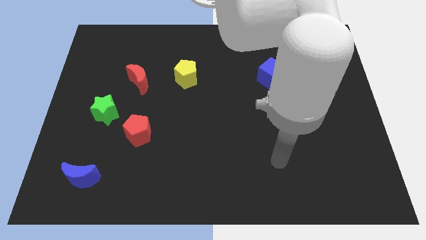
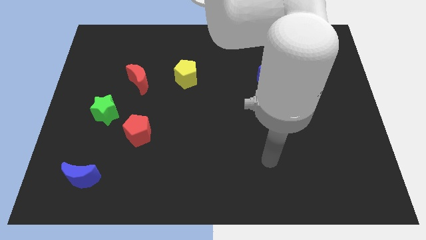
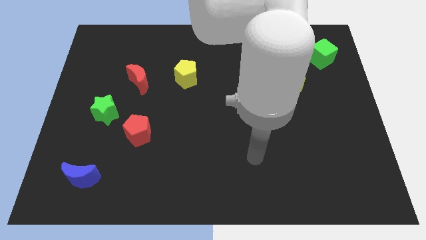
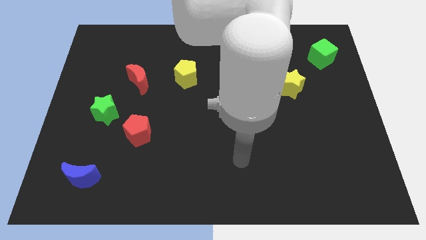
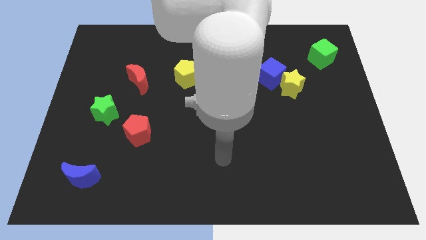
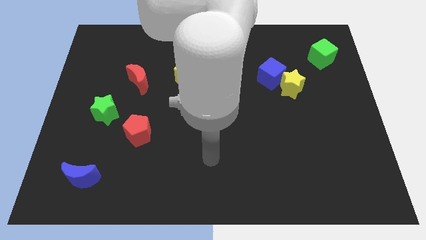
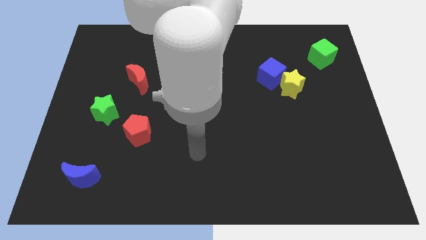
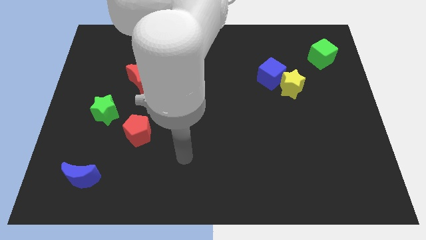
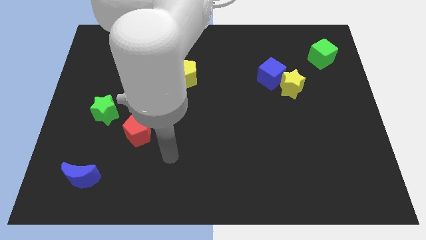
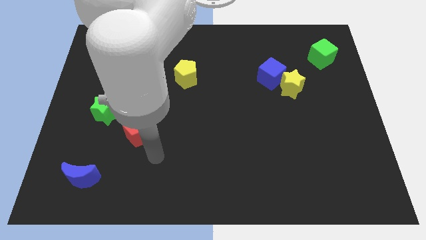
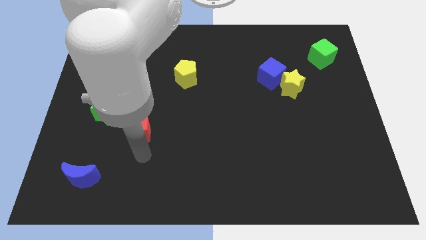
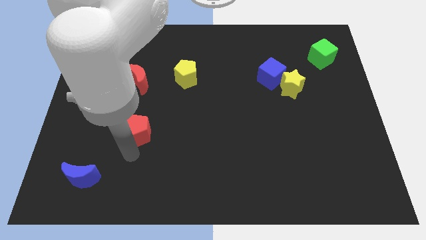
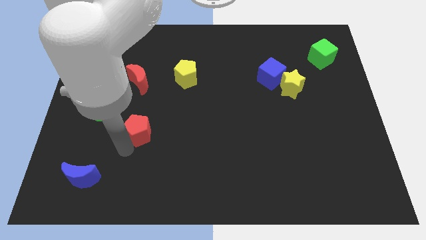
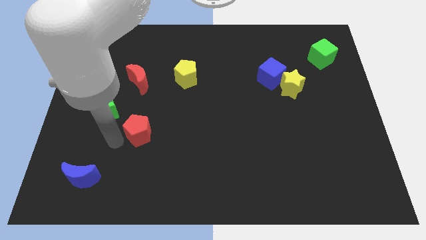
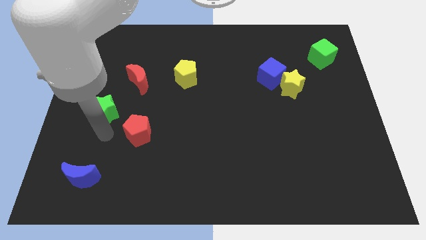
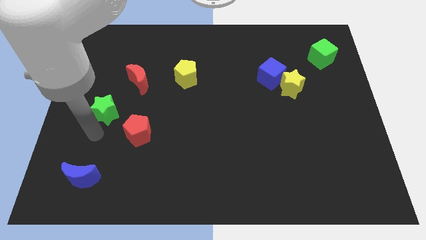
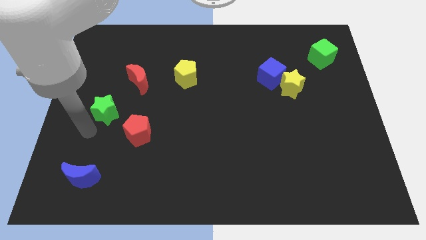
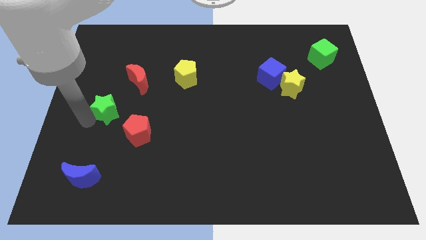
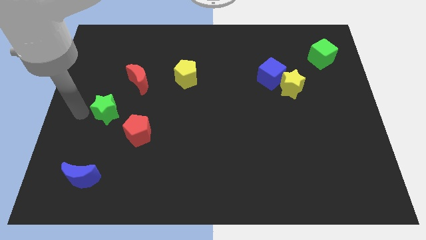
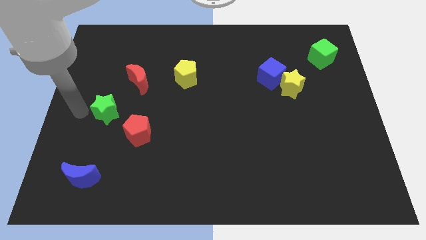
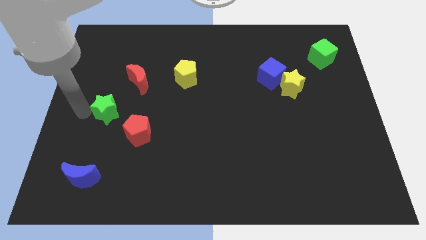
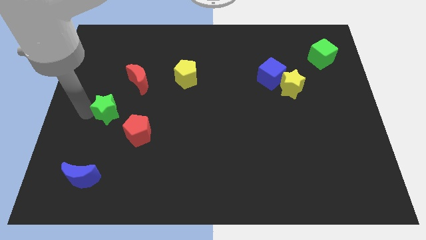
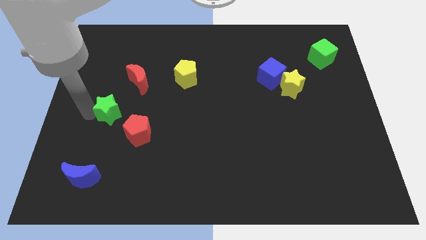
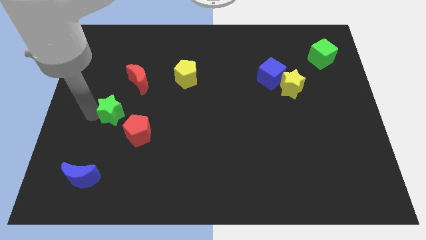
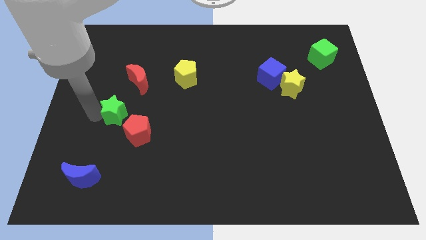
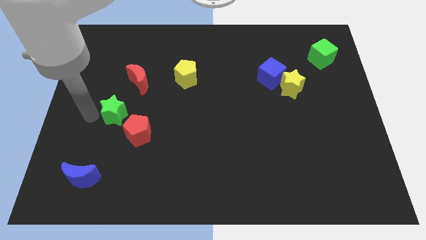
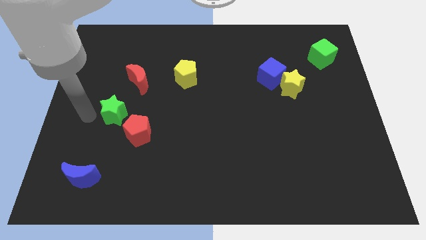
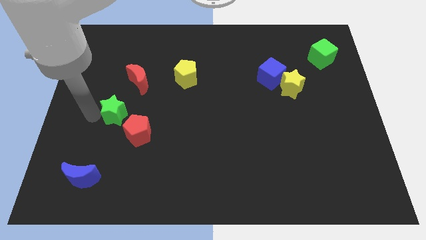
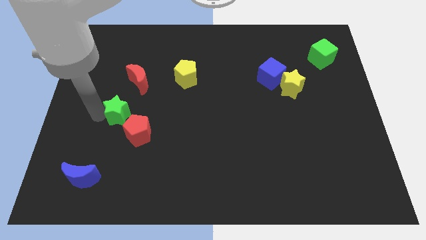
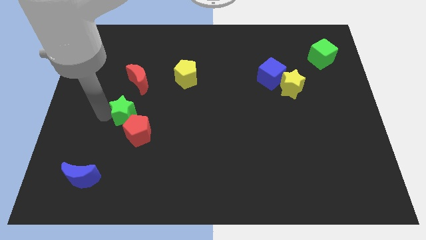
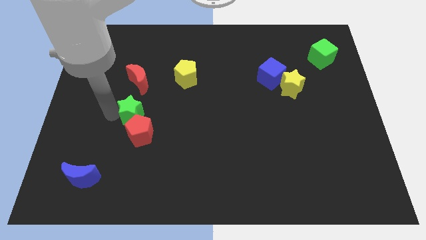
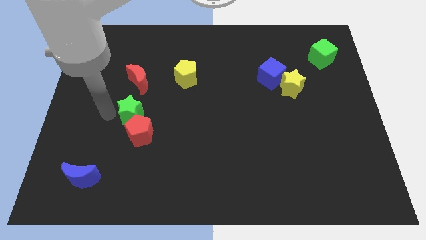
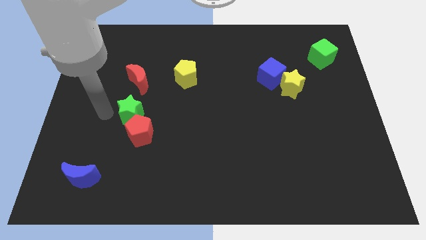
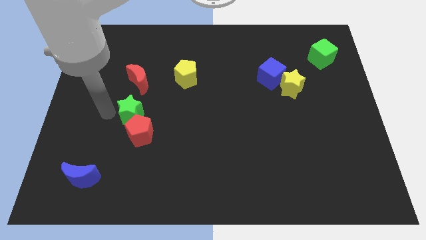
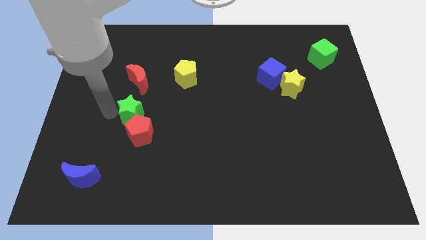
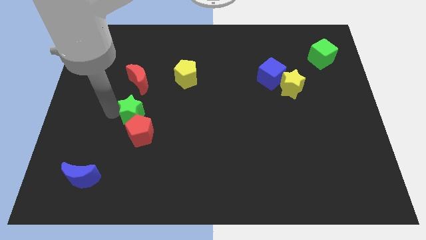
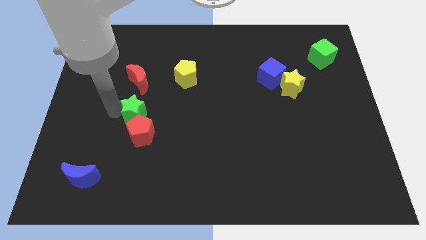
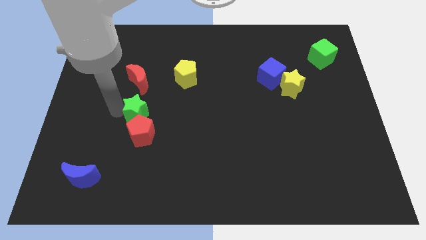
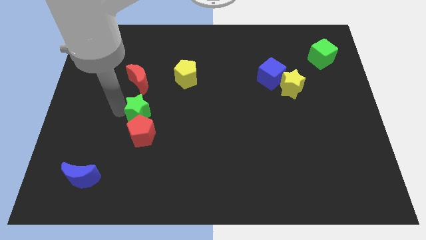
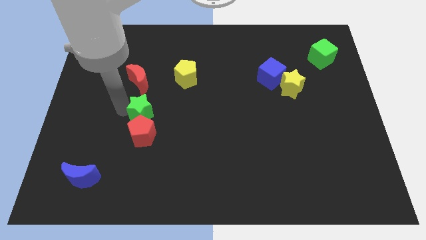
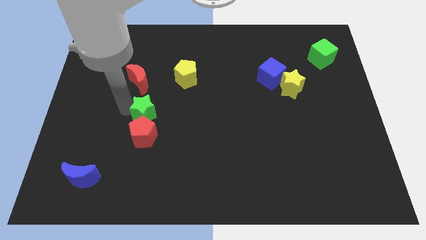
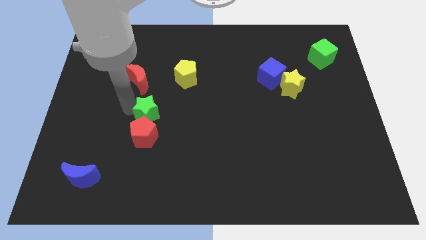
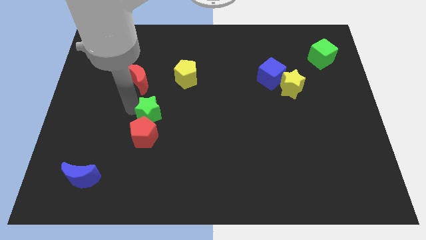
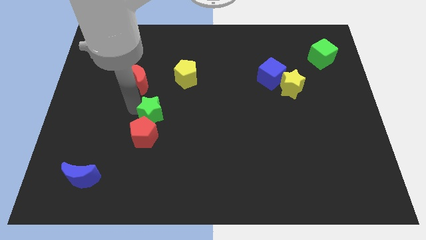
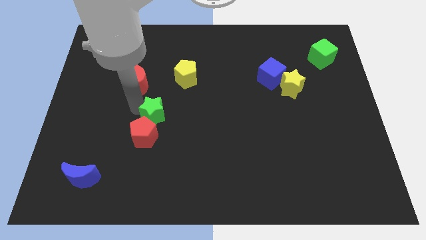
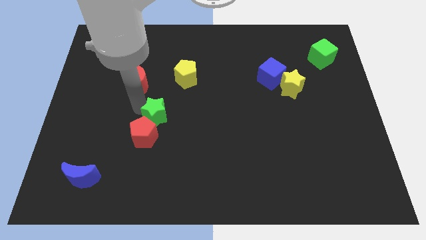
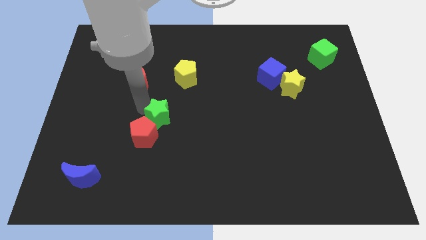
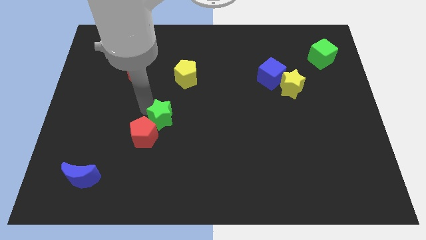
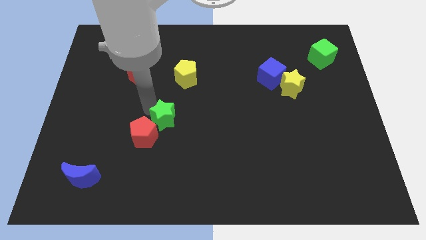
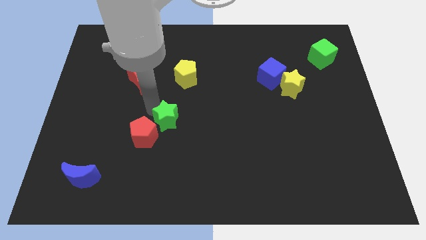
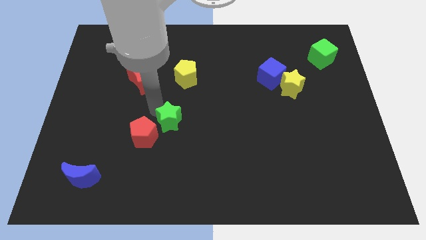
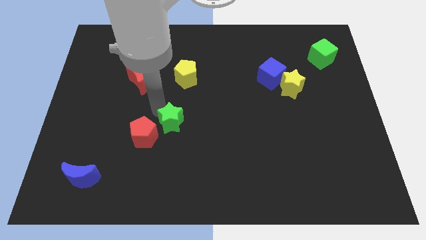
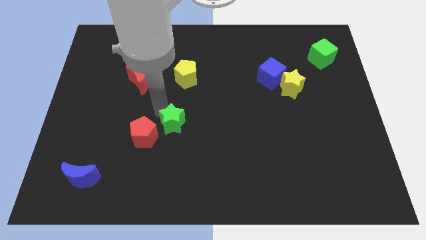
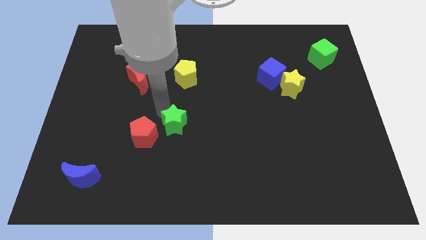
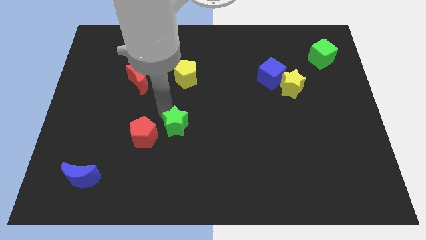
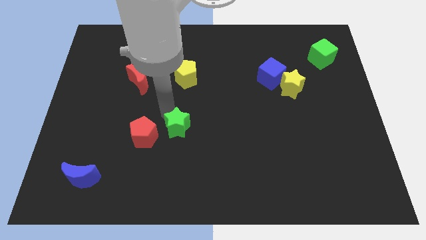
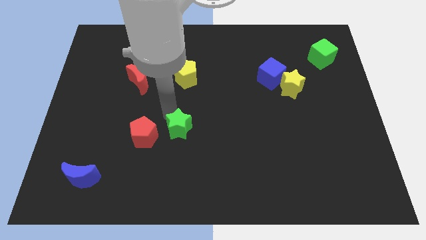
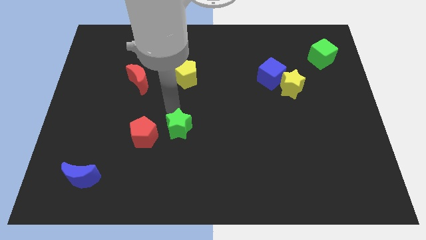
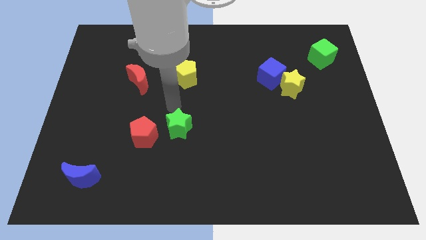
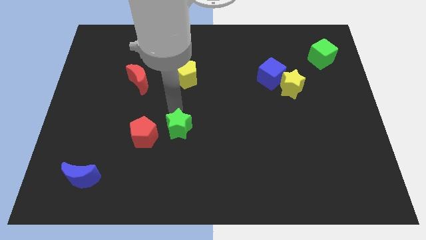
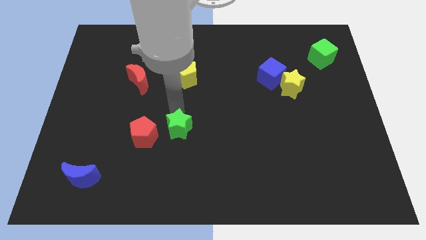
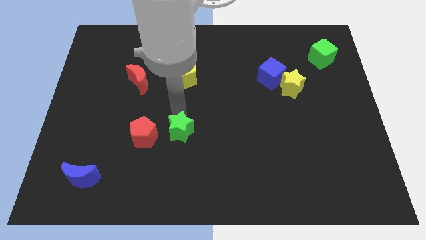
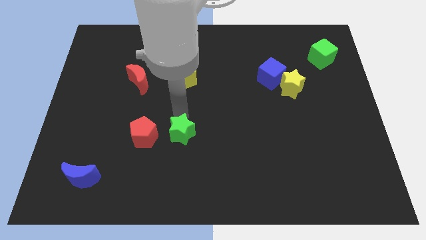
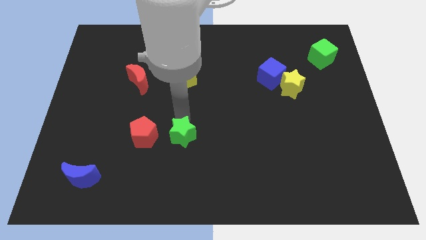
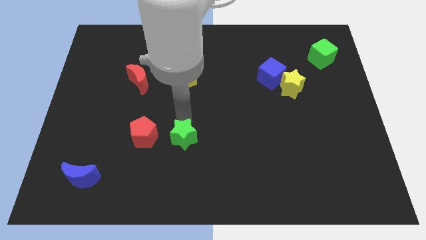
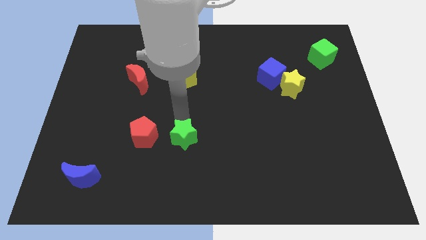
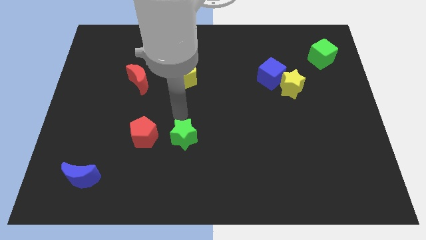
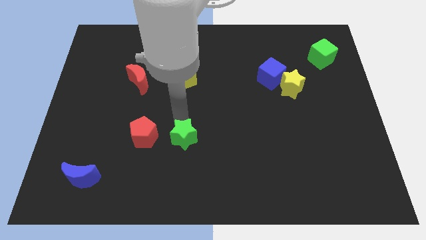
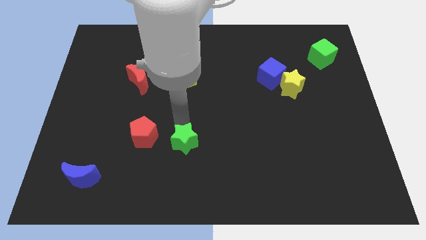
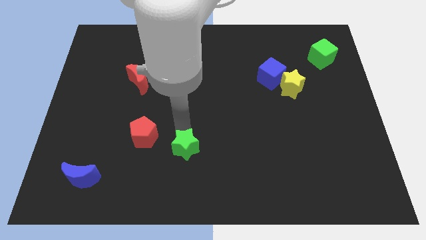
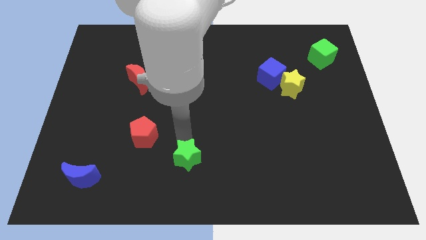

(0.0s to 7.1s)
push the green star to the bottom side
